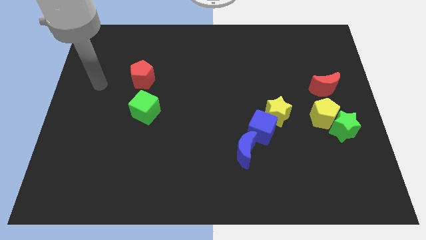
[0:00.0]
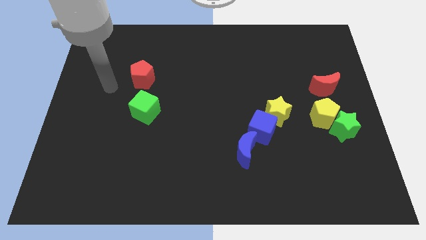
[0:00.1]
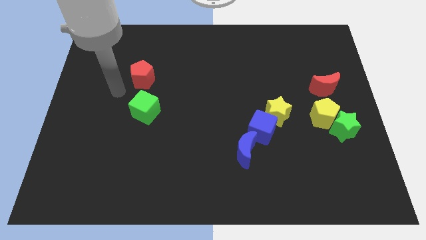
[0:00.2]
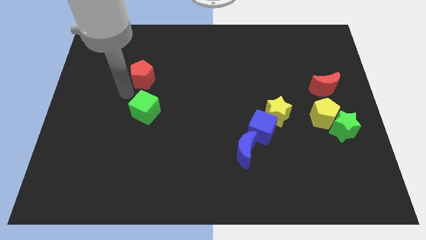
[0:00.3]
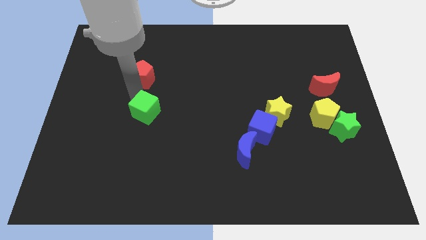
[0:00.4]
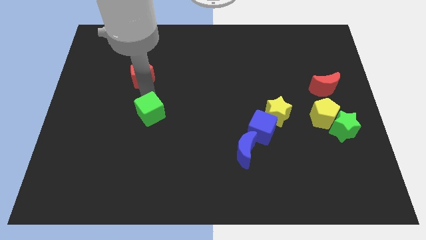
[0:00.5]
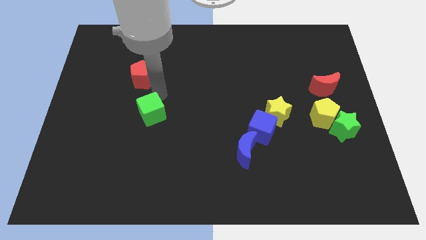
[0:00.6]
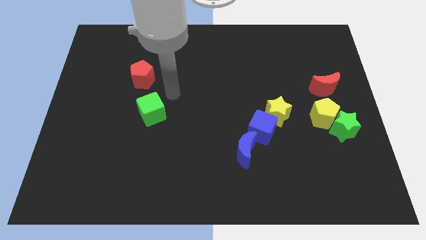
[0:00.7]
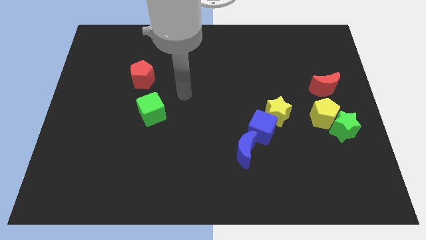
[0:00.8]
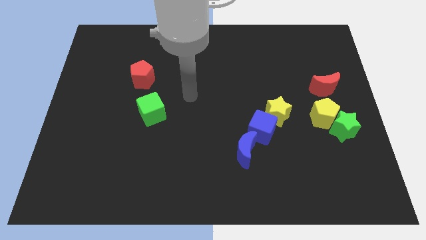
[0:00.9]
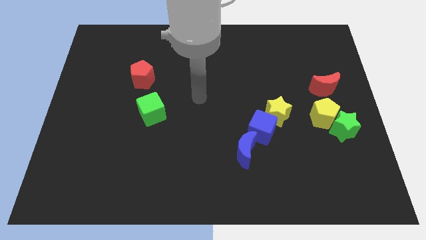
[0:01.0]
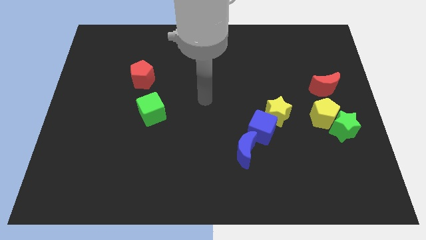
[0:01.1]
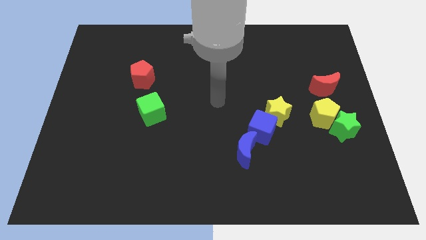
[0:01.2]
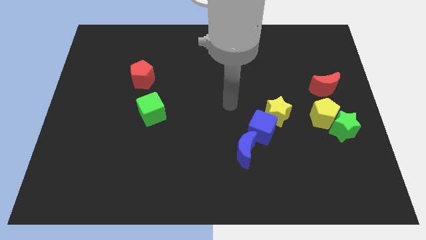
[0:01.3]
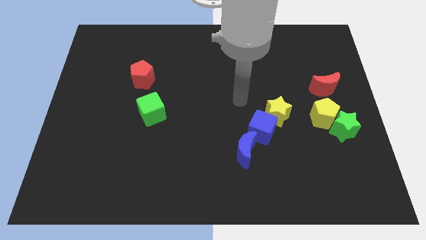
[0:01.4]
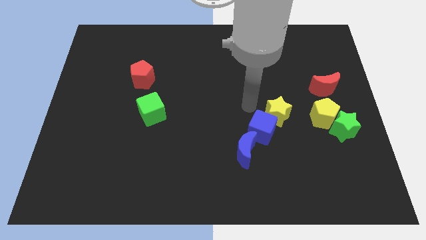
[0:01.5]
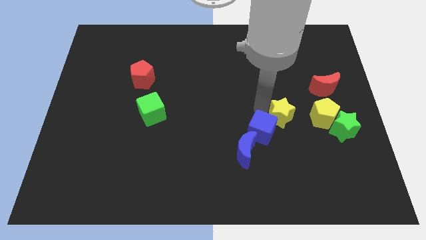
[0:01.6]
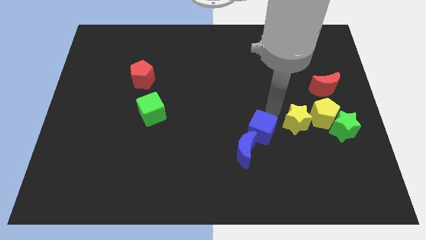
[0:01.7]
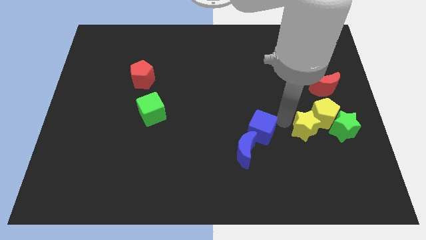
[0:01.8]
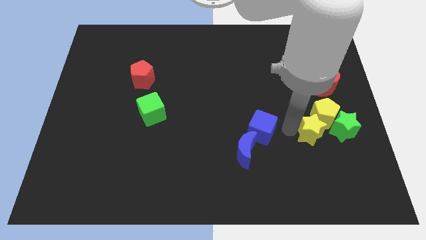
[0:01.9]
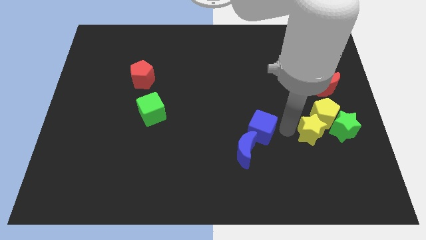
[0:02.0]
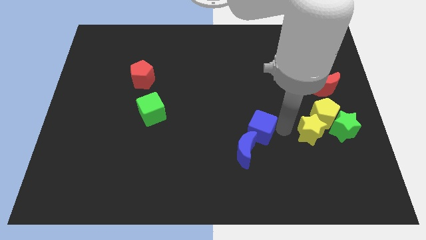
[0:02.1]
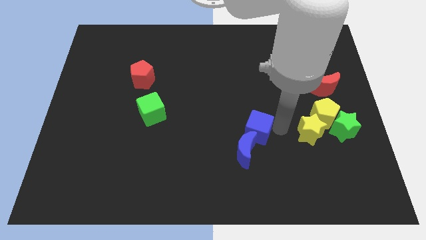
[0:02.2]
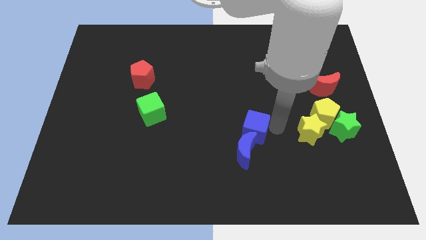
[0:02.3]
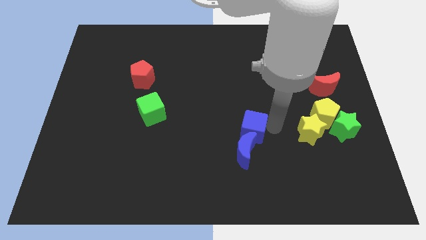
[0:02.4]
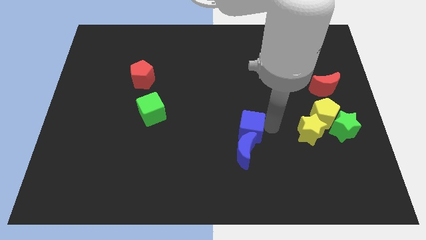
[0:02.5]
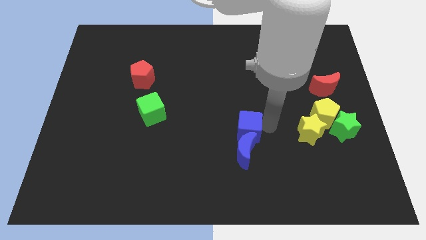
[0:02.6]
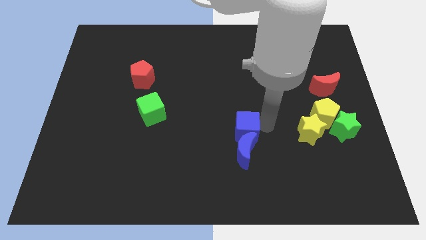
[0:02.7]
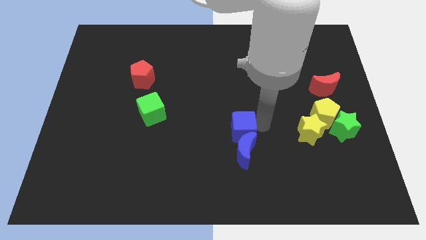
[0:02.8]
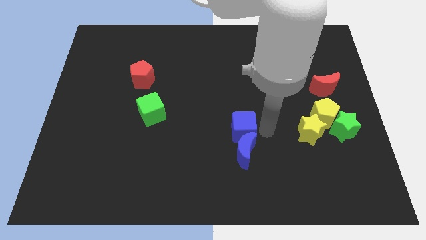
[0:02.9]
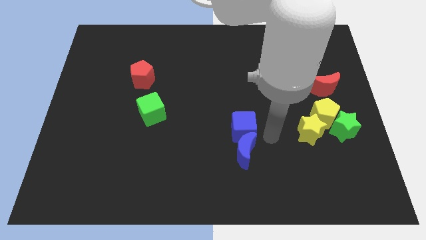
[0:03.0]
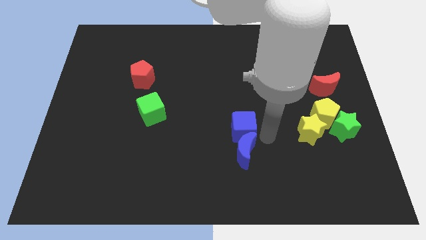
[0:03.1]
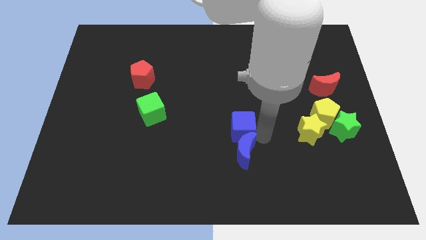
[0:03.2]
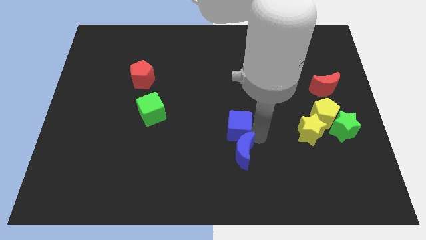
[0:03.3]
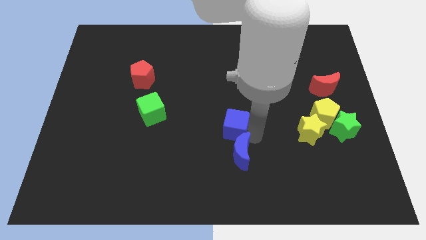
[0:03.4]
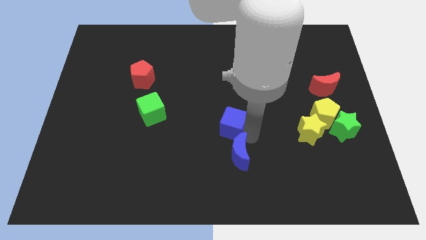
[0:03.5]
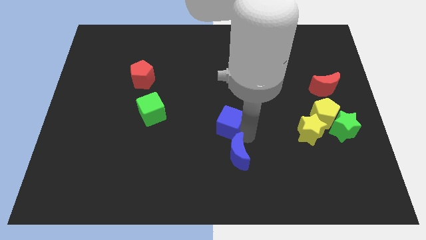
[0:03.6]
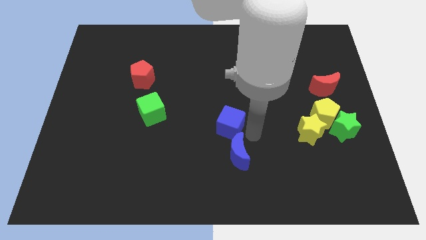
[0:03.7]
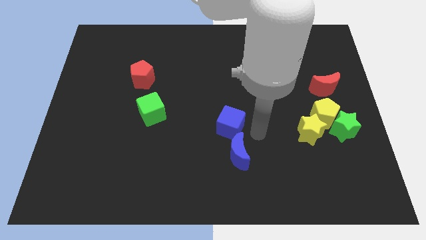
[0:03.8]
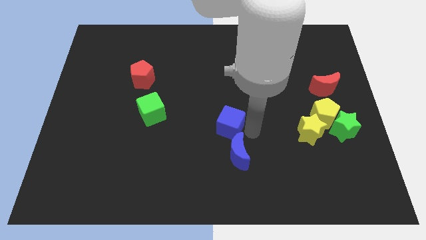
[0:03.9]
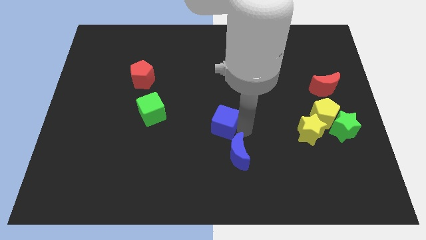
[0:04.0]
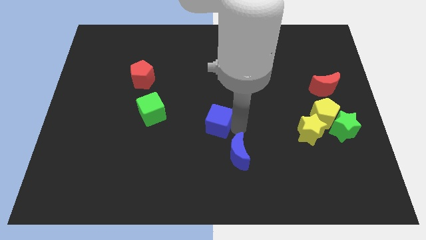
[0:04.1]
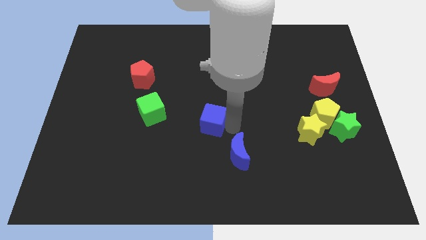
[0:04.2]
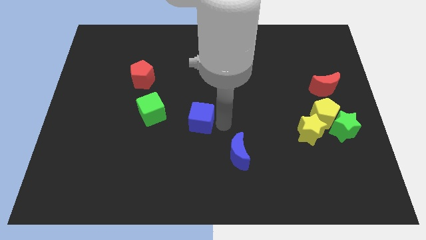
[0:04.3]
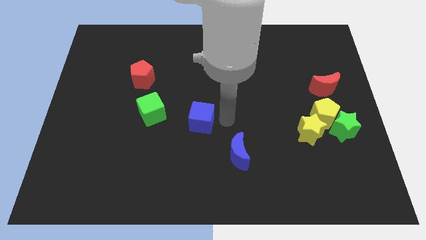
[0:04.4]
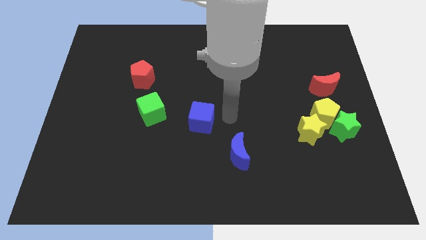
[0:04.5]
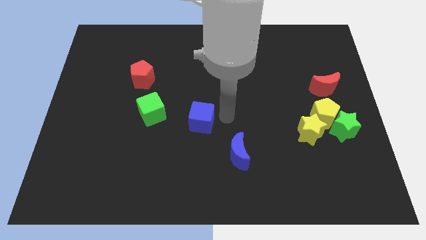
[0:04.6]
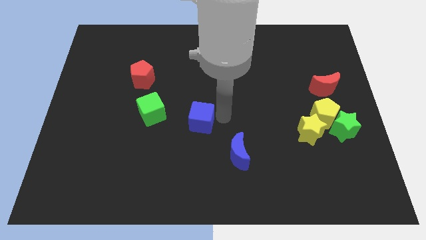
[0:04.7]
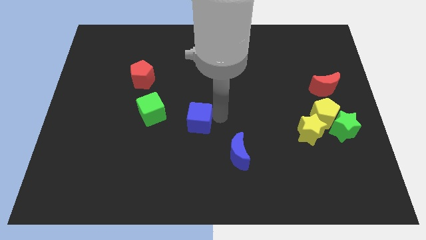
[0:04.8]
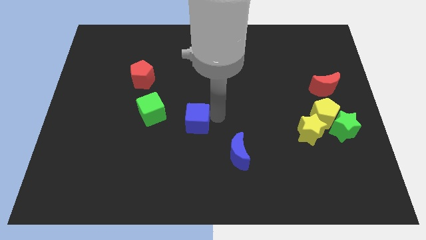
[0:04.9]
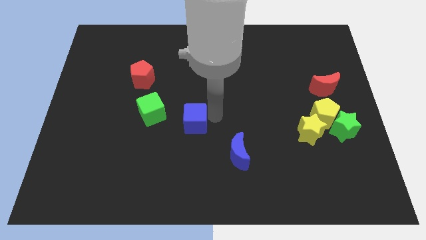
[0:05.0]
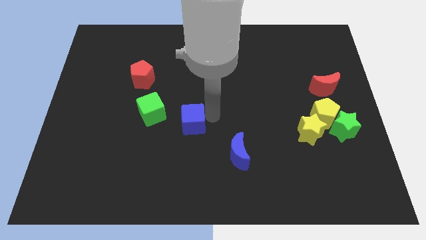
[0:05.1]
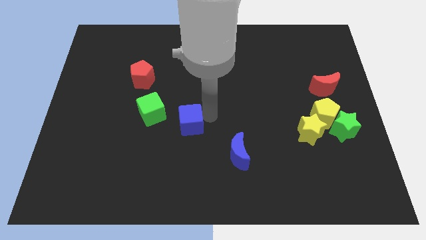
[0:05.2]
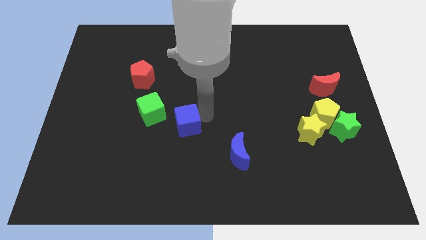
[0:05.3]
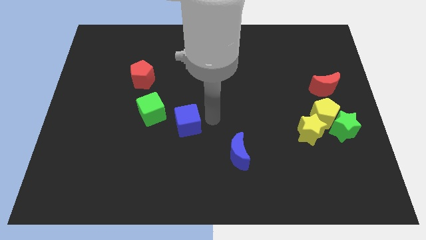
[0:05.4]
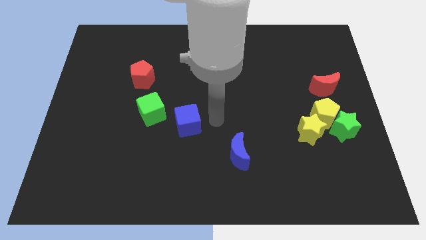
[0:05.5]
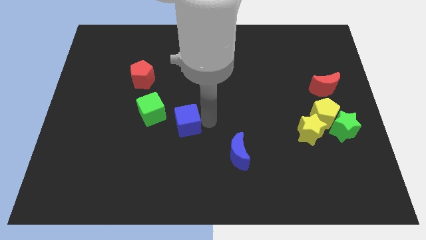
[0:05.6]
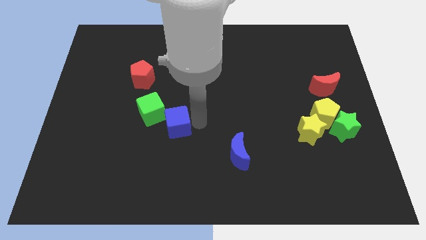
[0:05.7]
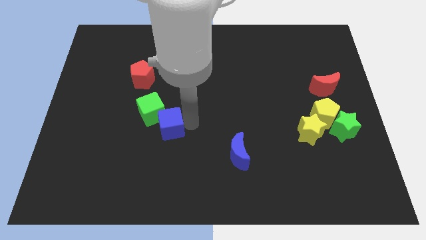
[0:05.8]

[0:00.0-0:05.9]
push the blue cube left

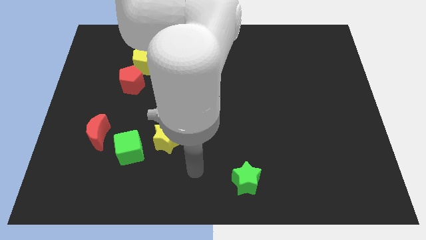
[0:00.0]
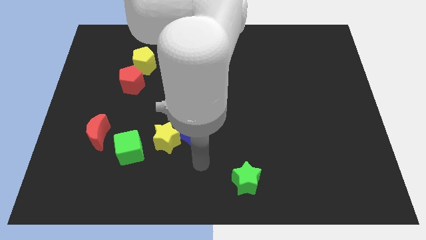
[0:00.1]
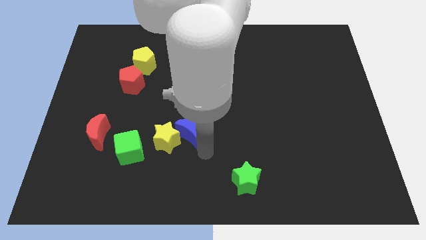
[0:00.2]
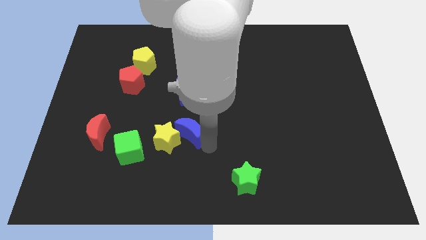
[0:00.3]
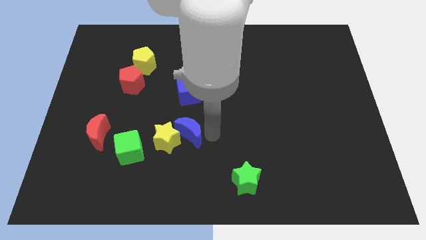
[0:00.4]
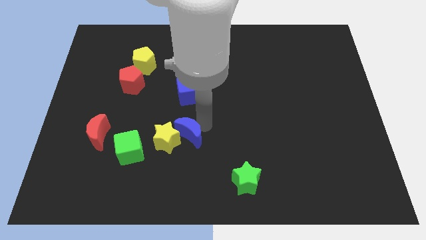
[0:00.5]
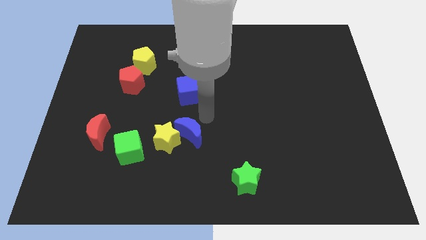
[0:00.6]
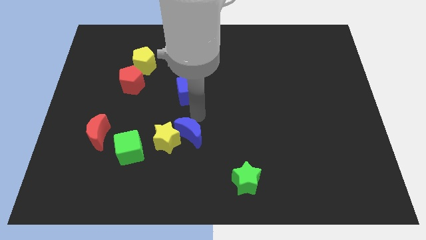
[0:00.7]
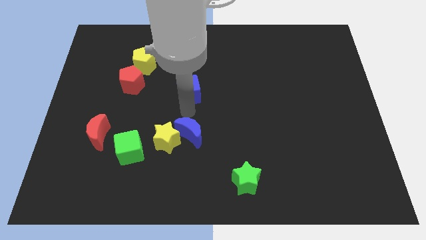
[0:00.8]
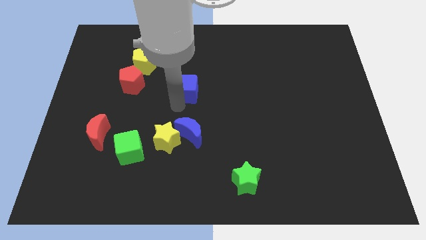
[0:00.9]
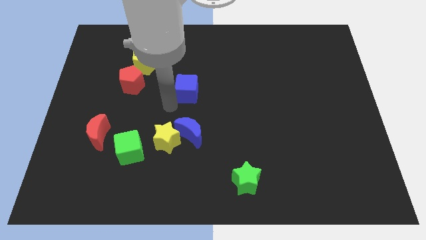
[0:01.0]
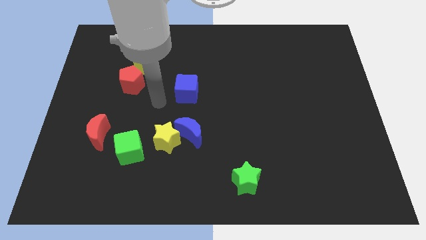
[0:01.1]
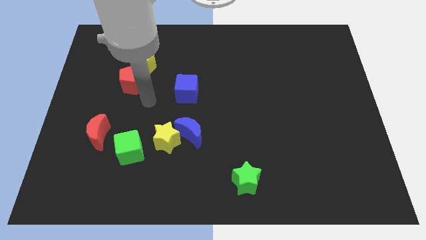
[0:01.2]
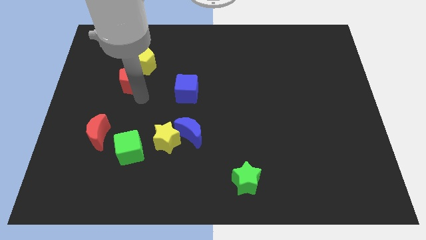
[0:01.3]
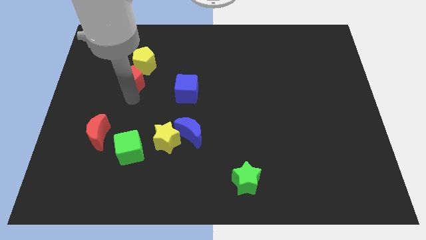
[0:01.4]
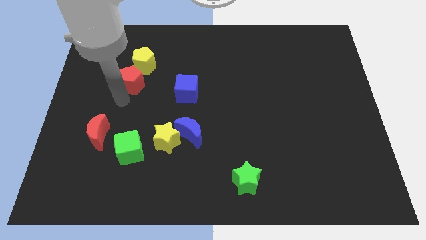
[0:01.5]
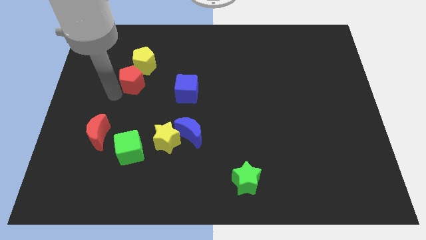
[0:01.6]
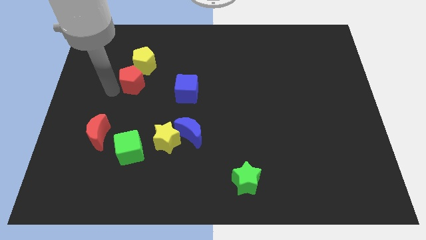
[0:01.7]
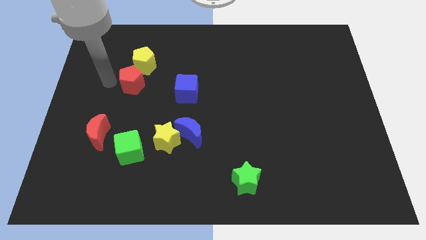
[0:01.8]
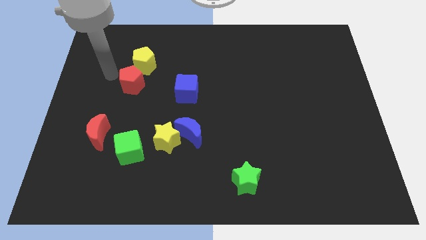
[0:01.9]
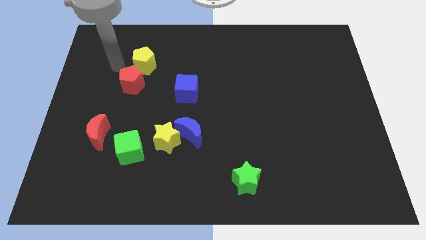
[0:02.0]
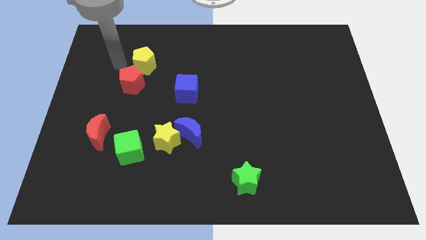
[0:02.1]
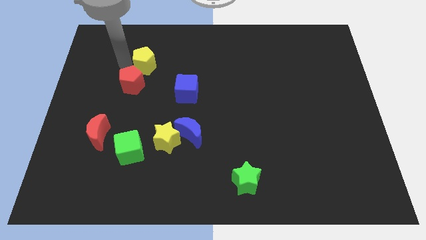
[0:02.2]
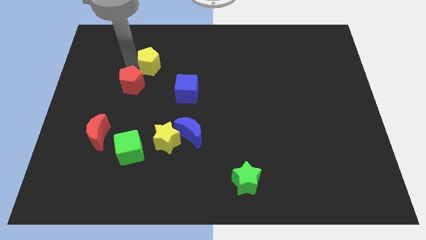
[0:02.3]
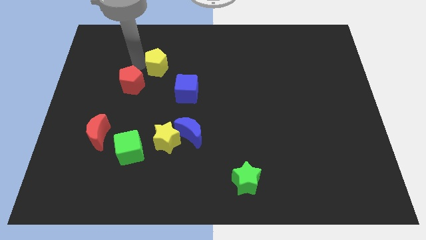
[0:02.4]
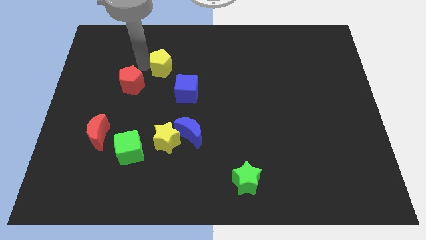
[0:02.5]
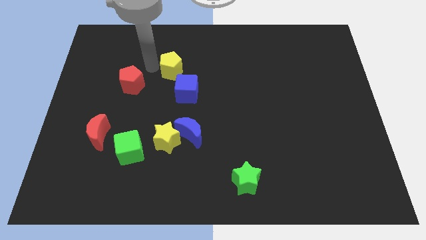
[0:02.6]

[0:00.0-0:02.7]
slide the yellow pentagon to the right slightly
